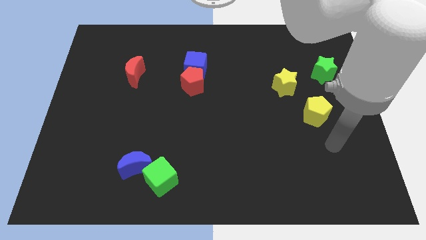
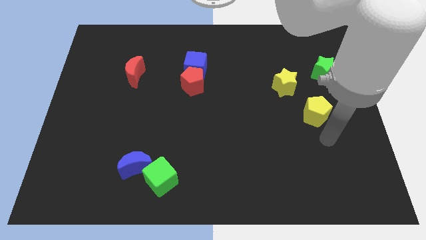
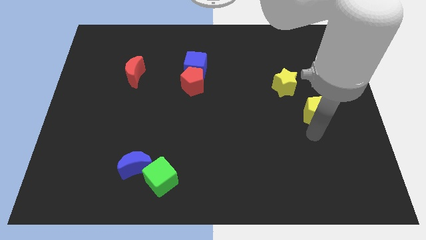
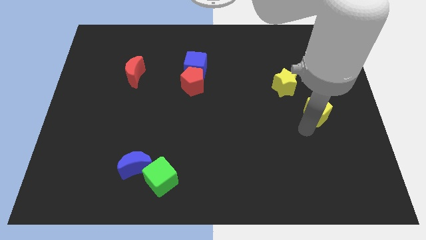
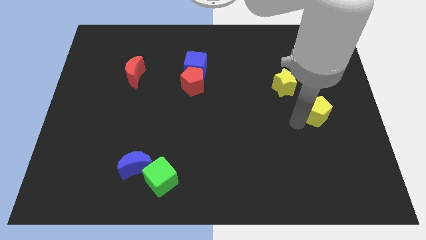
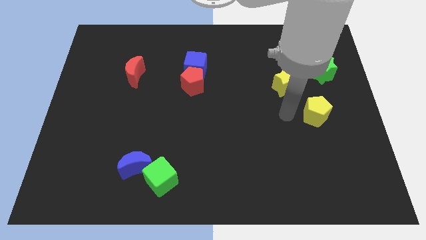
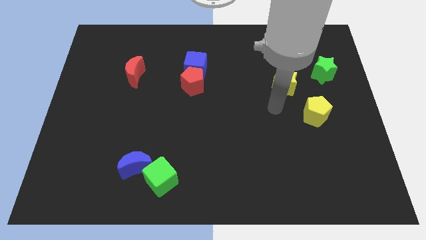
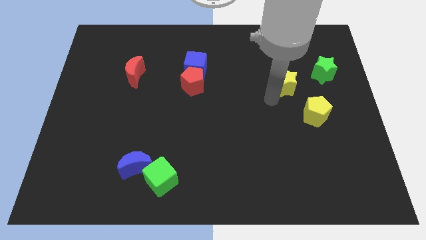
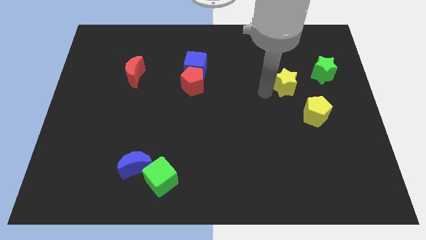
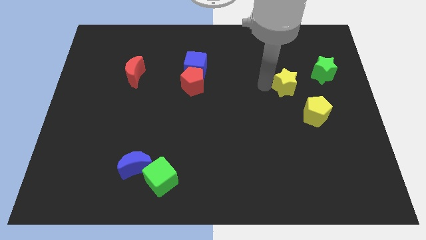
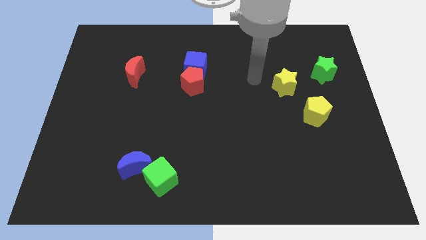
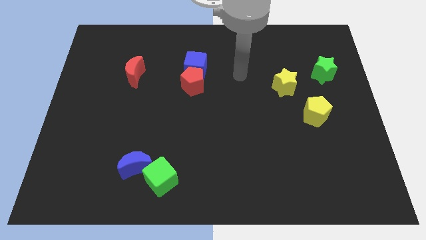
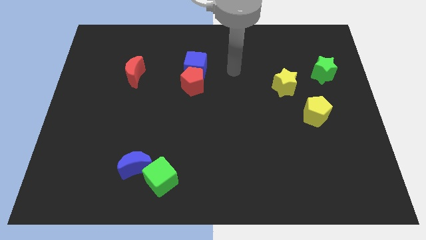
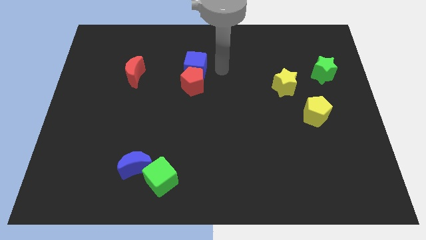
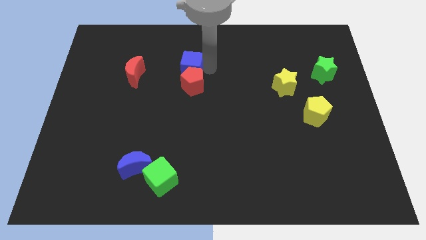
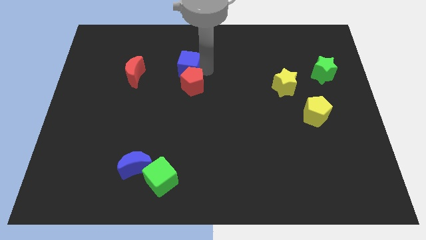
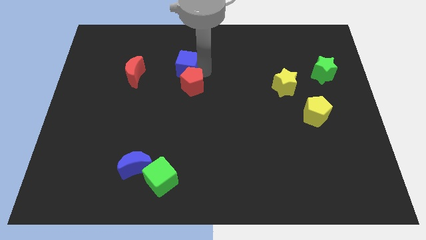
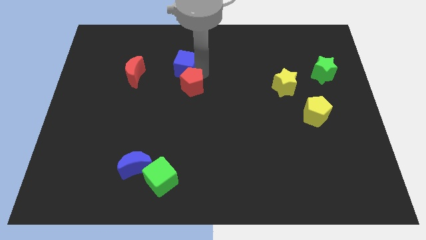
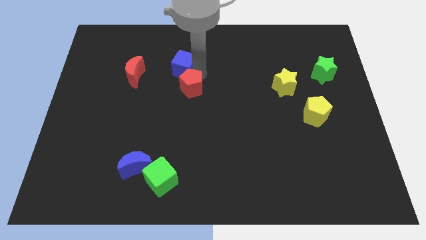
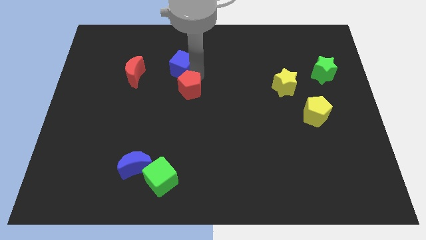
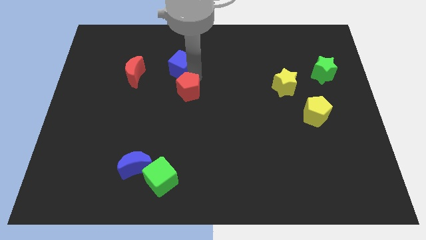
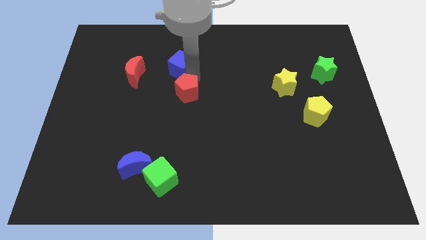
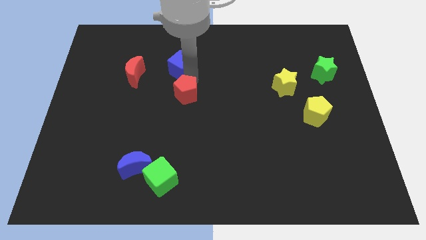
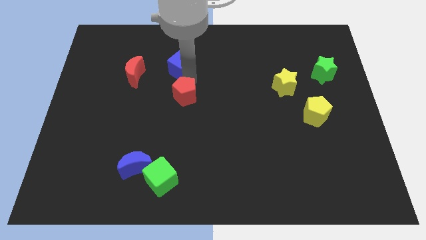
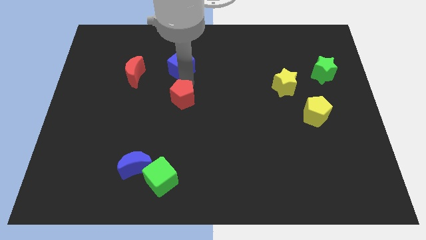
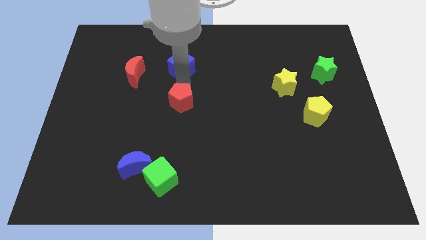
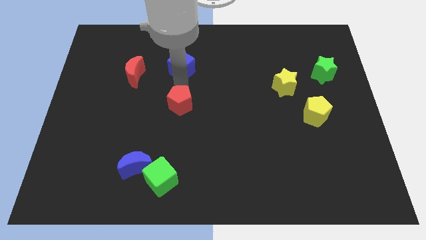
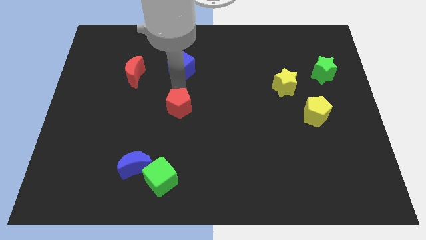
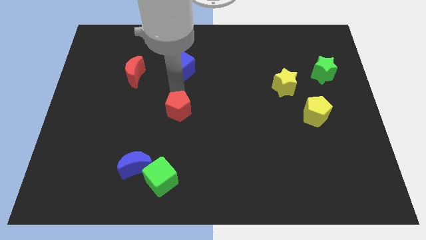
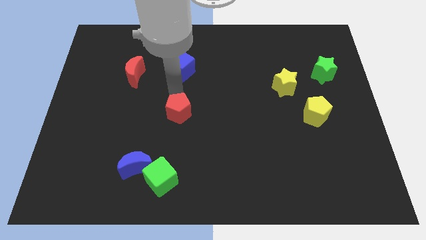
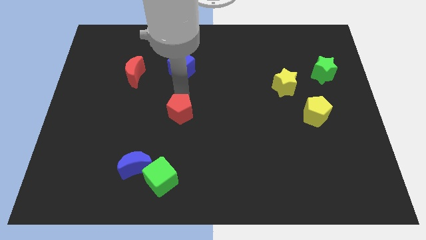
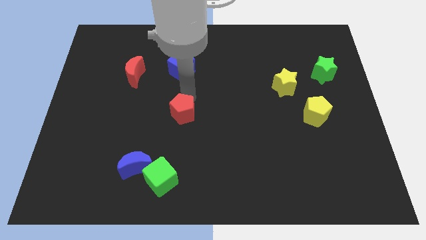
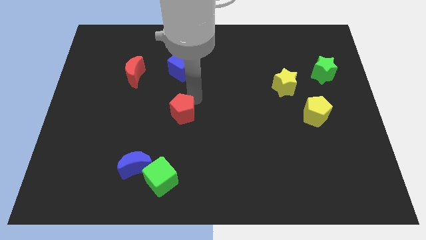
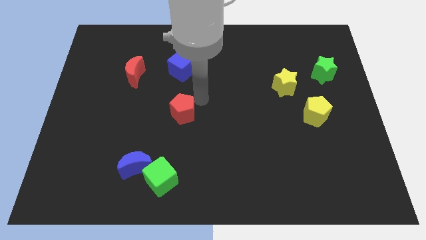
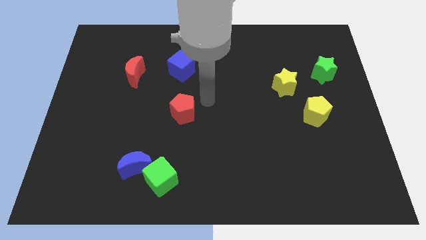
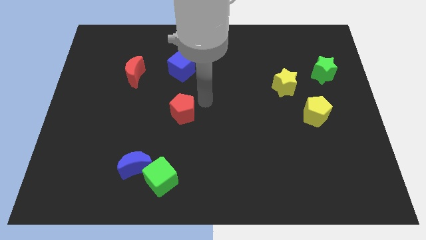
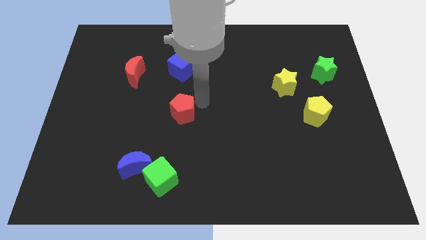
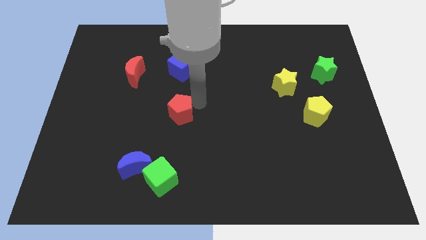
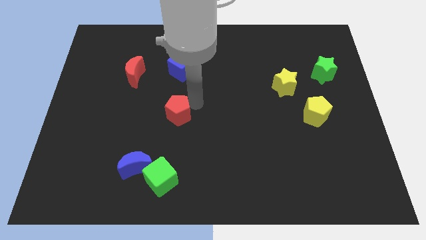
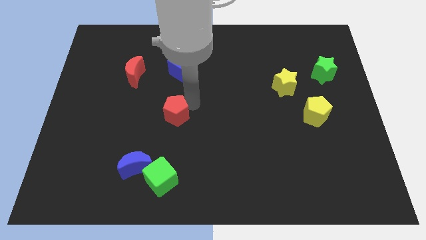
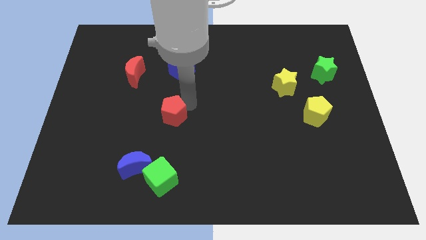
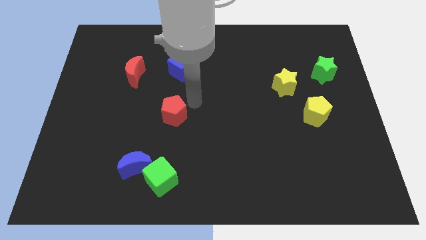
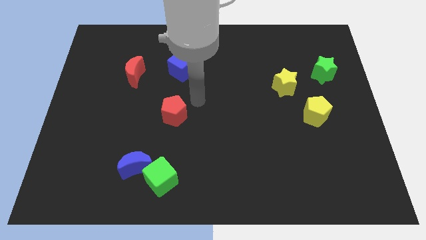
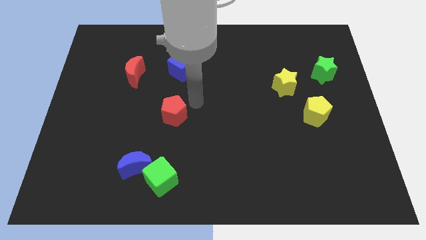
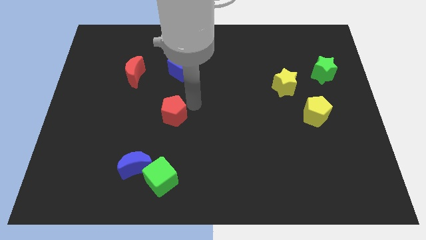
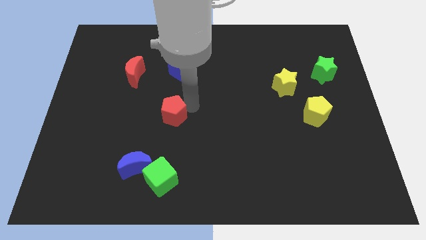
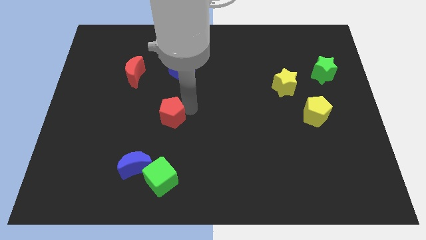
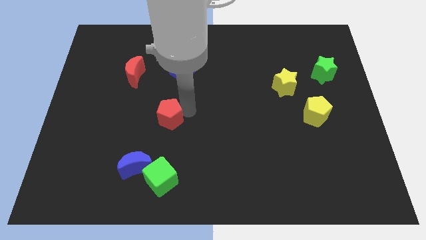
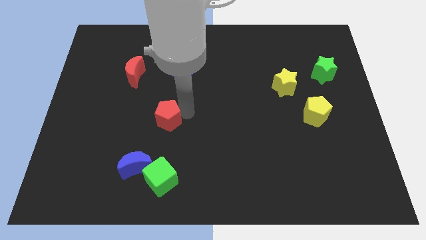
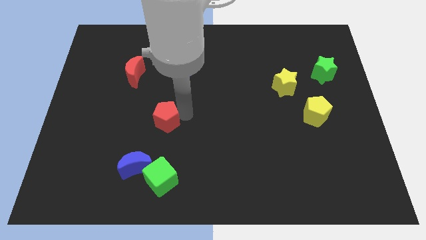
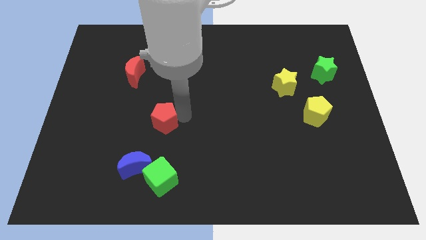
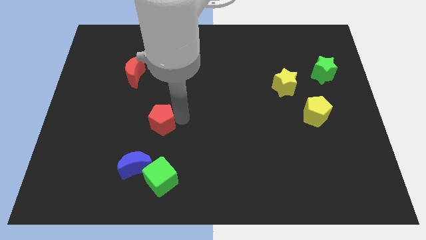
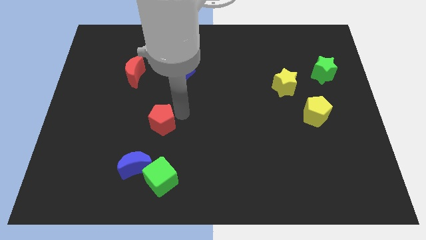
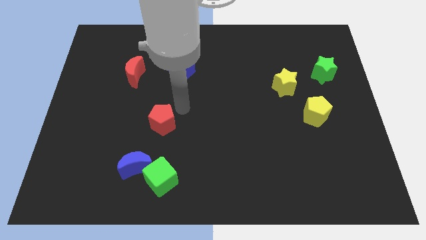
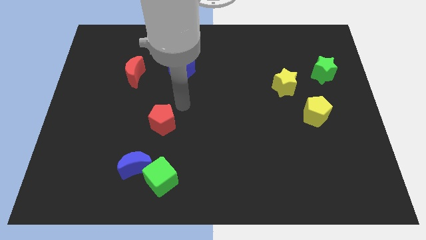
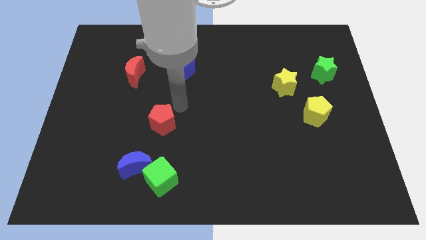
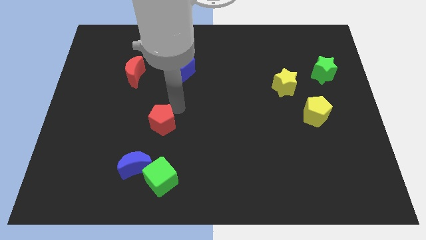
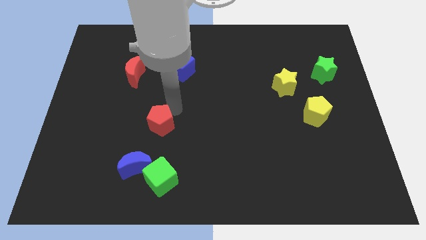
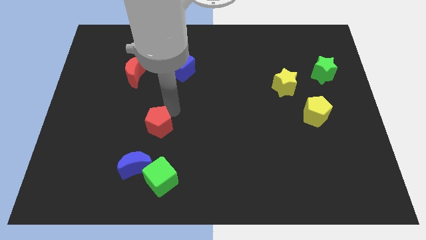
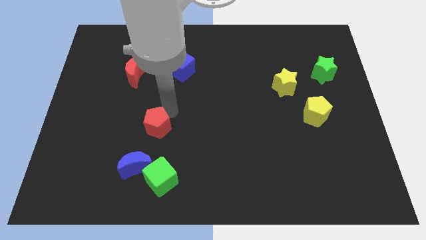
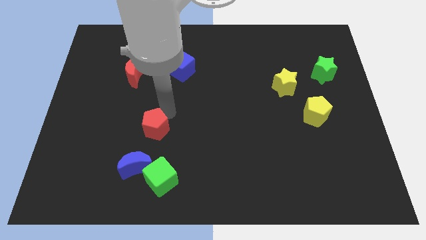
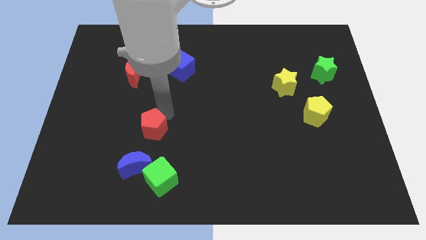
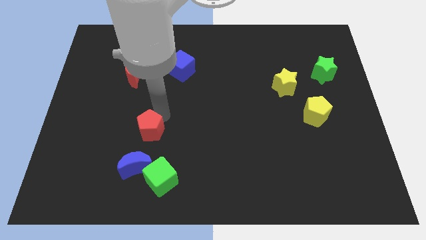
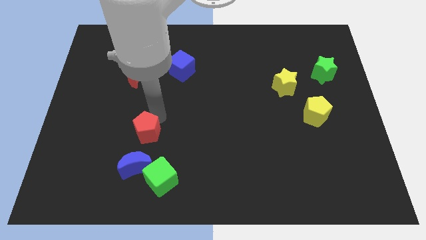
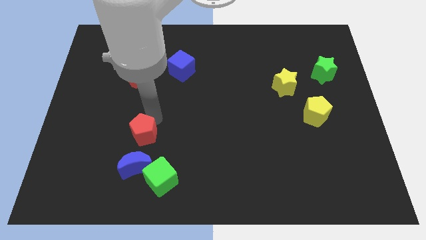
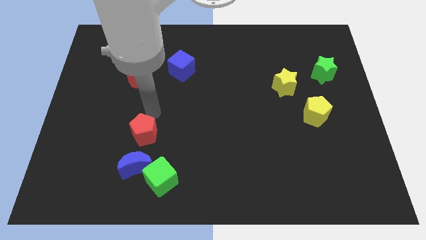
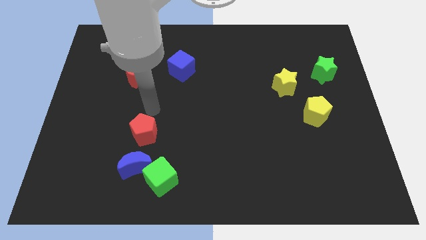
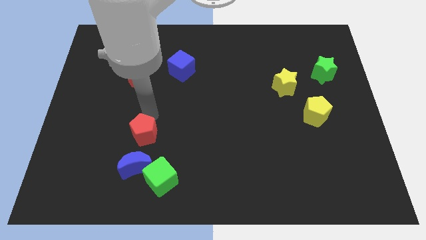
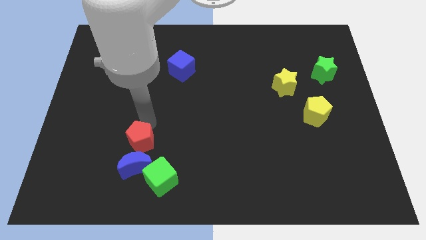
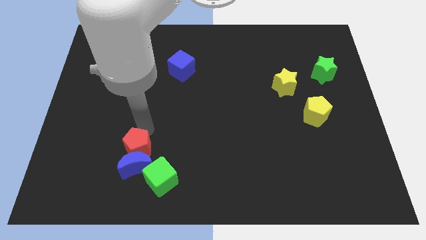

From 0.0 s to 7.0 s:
put the red pentagon towards the blue moon
